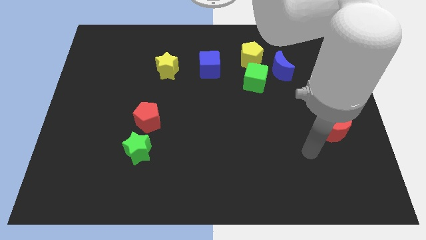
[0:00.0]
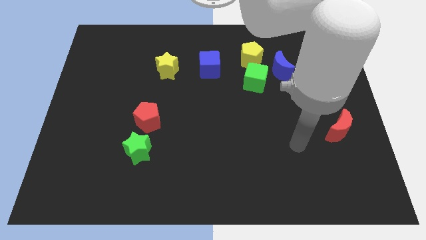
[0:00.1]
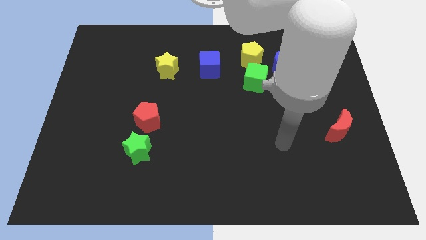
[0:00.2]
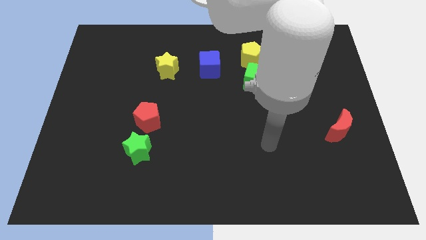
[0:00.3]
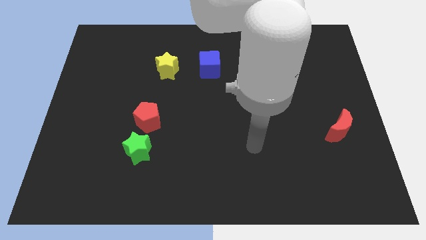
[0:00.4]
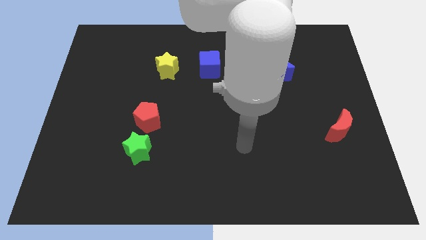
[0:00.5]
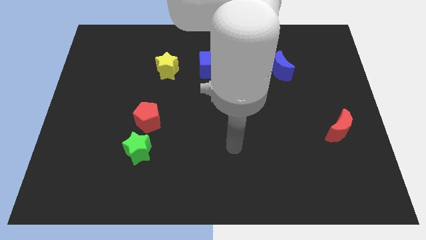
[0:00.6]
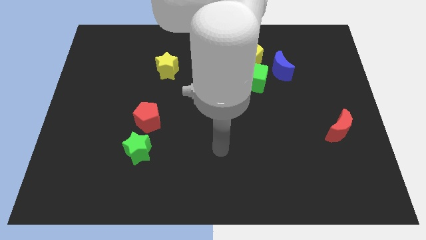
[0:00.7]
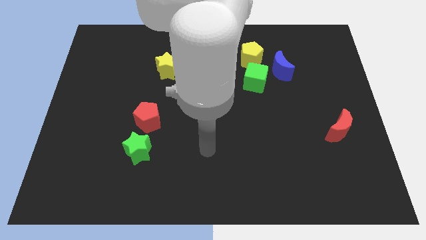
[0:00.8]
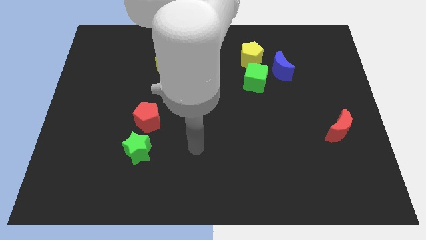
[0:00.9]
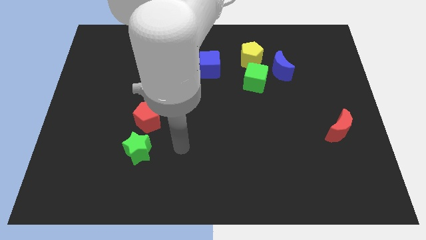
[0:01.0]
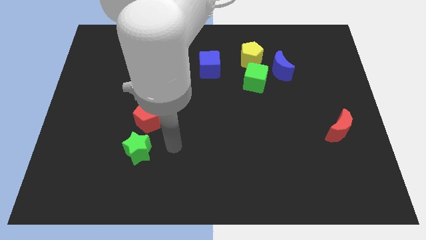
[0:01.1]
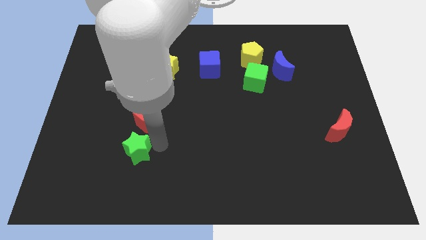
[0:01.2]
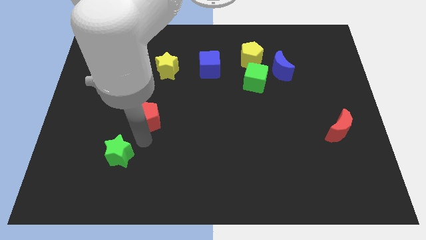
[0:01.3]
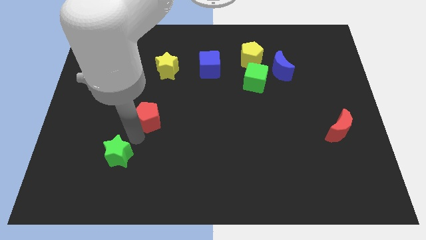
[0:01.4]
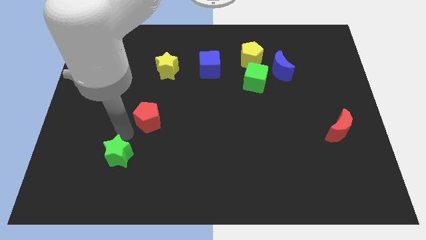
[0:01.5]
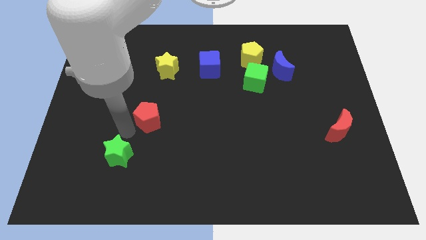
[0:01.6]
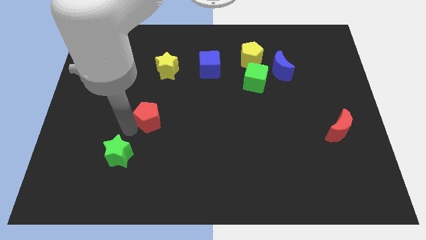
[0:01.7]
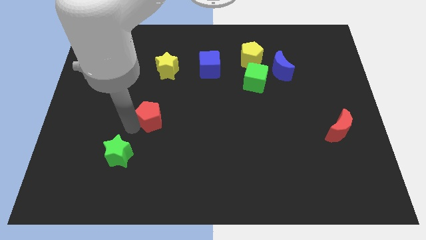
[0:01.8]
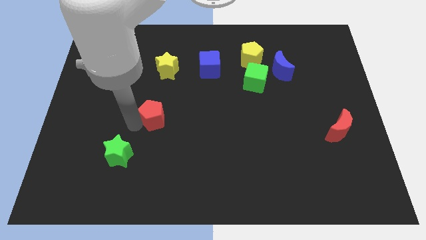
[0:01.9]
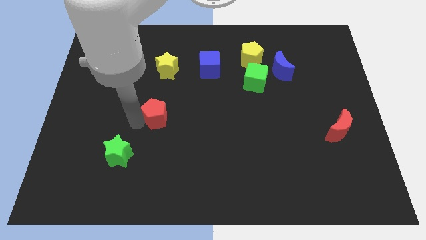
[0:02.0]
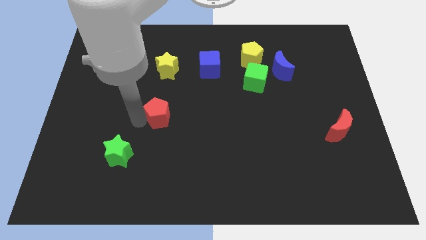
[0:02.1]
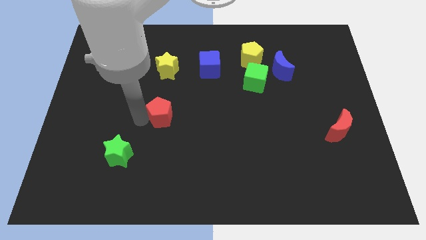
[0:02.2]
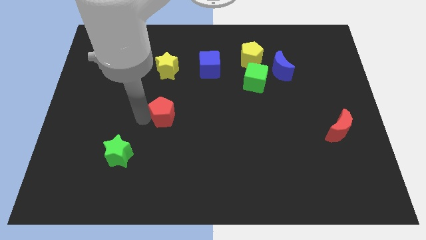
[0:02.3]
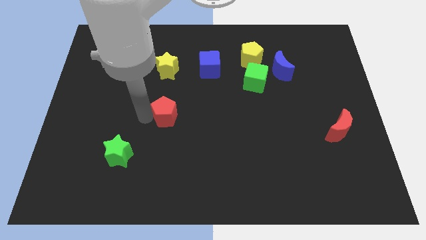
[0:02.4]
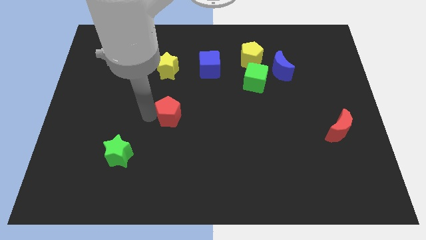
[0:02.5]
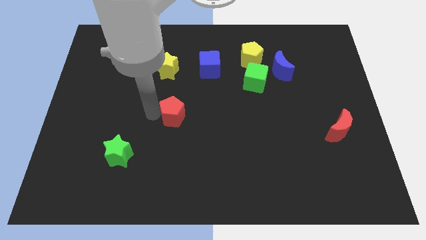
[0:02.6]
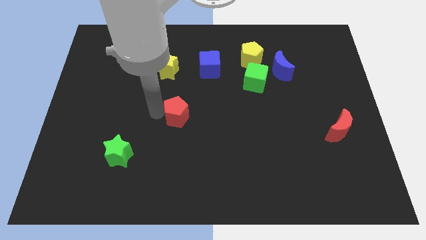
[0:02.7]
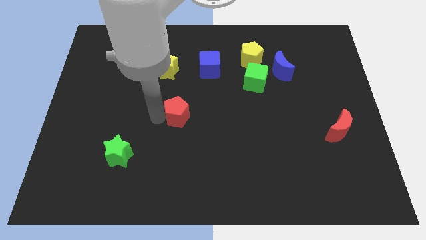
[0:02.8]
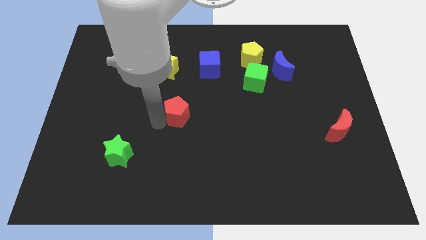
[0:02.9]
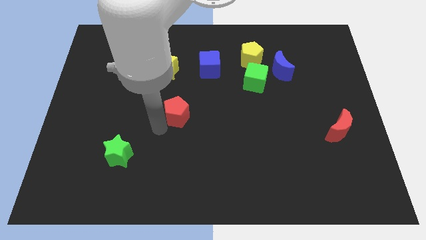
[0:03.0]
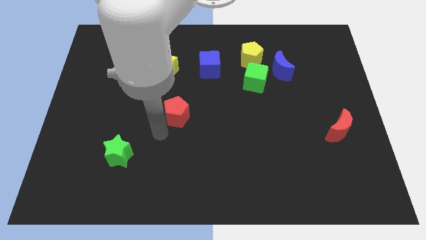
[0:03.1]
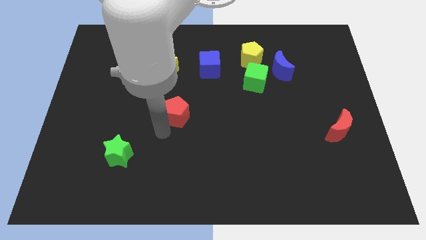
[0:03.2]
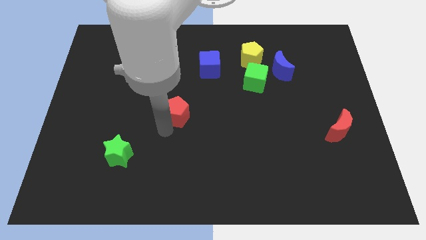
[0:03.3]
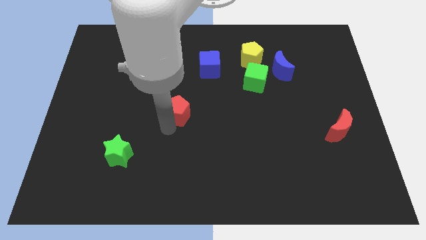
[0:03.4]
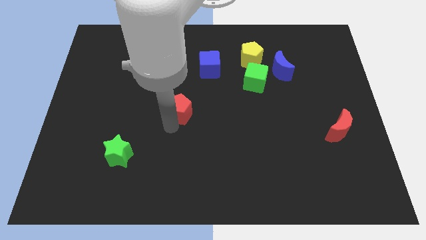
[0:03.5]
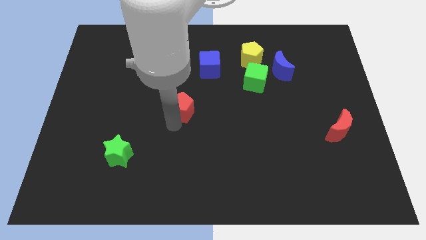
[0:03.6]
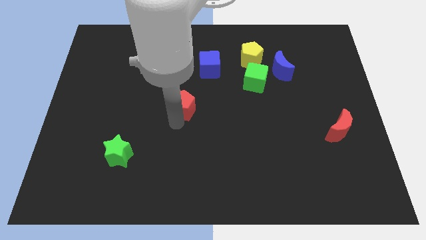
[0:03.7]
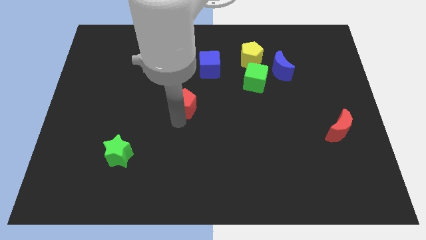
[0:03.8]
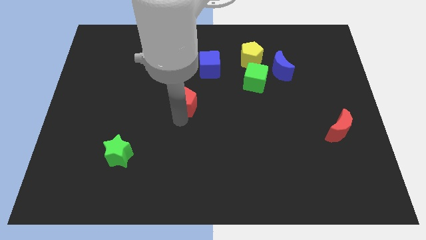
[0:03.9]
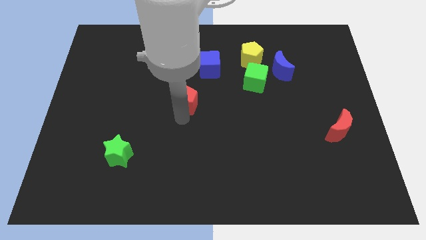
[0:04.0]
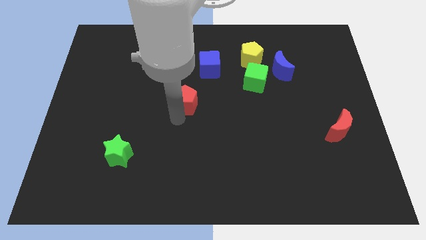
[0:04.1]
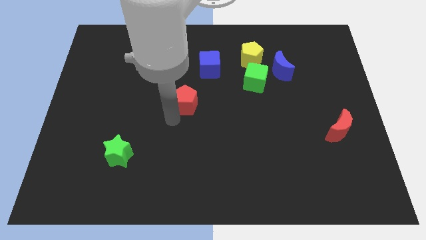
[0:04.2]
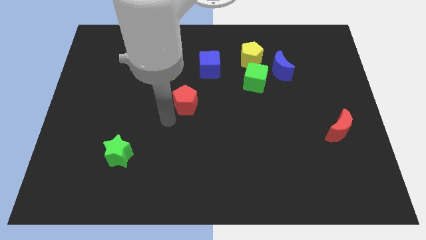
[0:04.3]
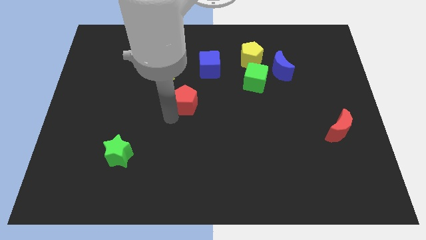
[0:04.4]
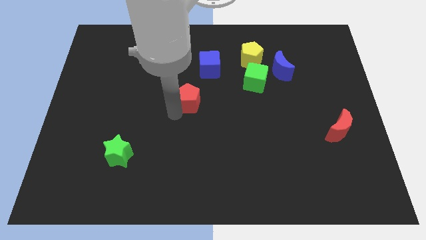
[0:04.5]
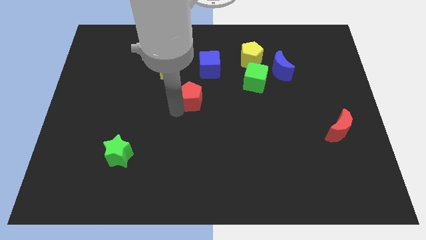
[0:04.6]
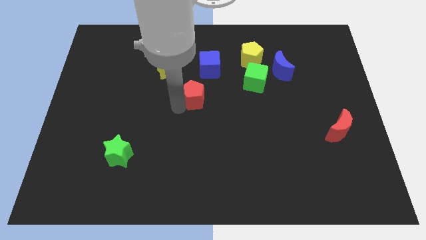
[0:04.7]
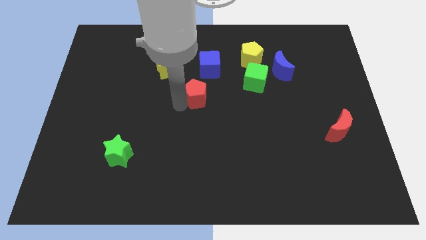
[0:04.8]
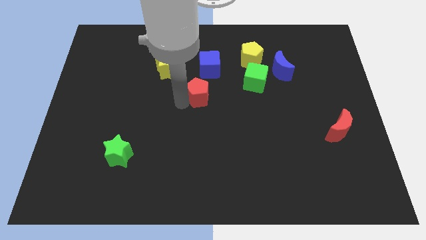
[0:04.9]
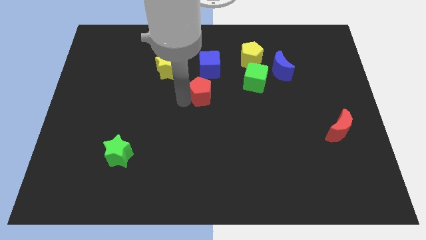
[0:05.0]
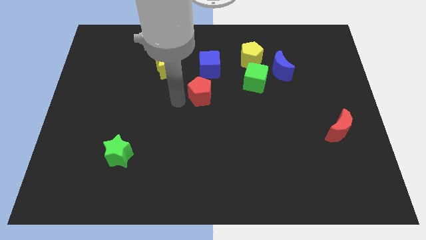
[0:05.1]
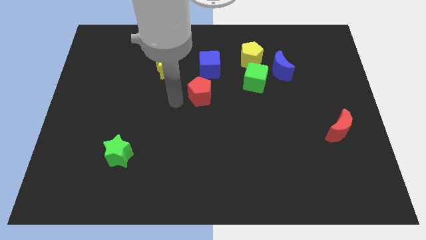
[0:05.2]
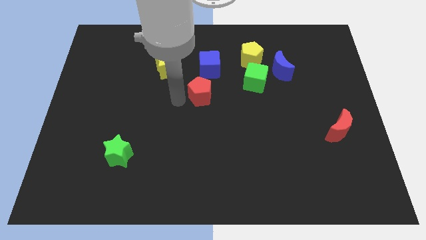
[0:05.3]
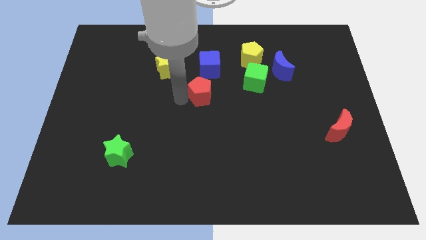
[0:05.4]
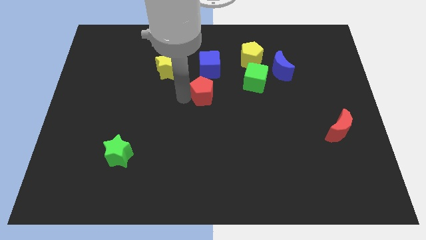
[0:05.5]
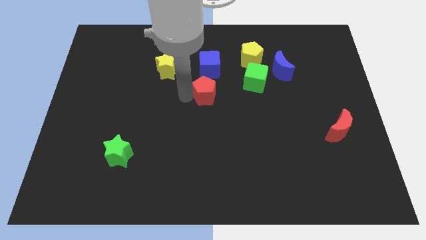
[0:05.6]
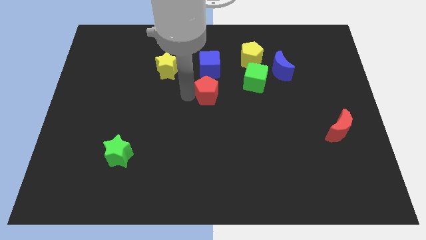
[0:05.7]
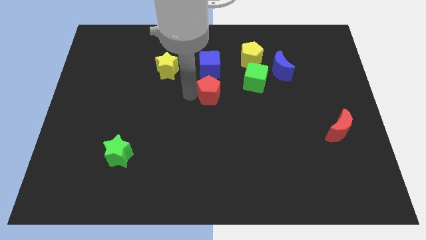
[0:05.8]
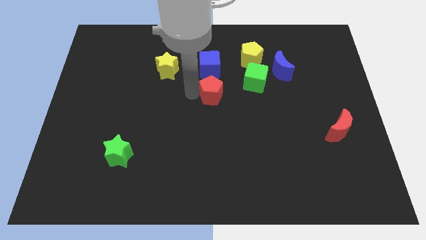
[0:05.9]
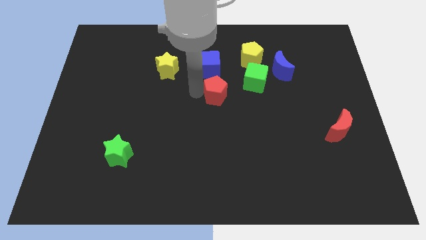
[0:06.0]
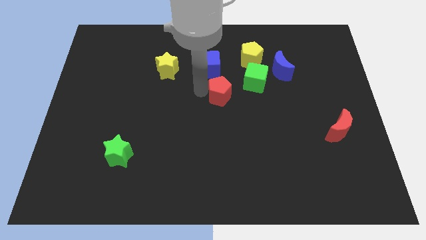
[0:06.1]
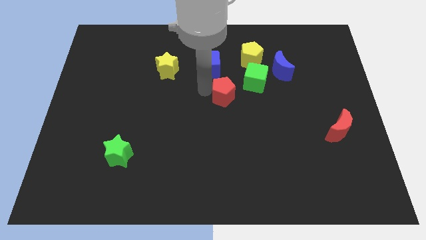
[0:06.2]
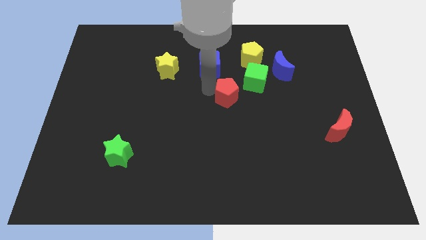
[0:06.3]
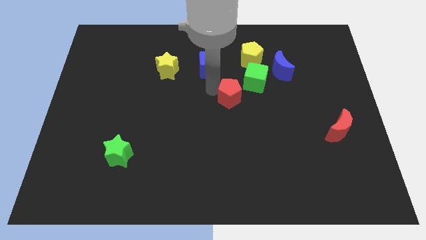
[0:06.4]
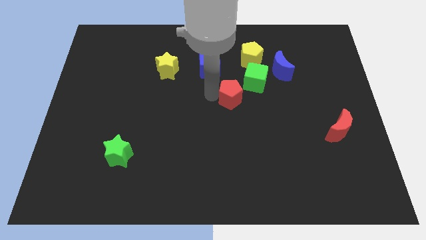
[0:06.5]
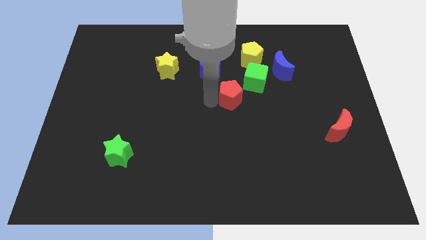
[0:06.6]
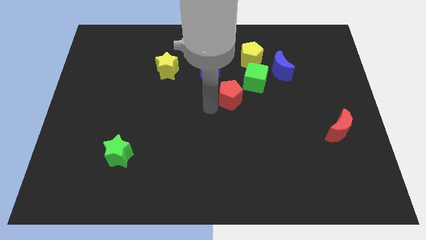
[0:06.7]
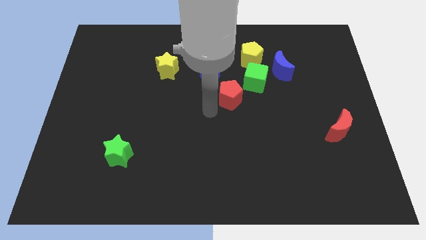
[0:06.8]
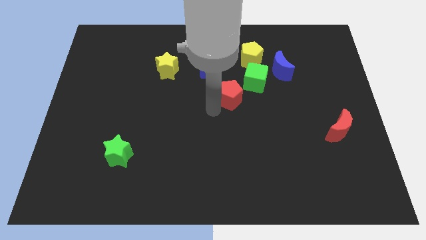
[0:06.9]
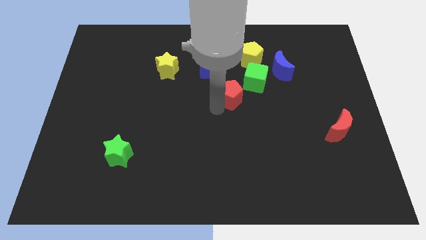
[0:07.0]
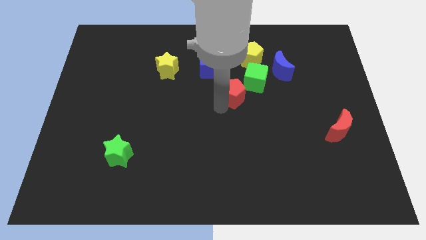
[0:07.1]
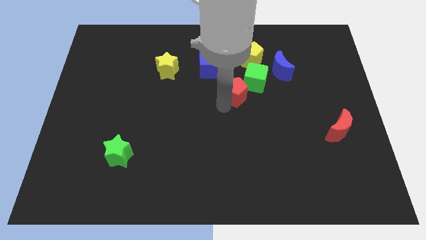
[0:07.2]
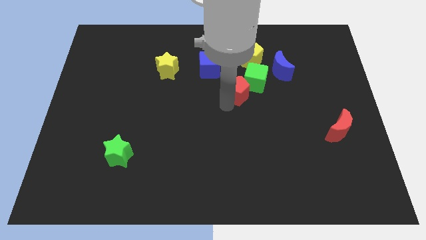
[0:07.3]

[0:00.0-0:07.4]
put the red pentagon towards the green cube
